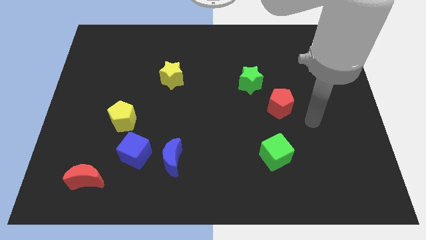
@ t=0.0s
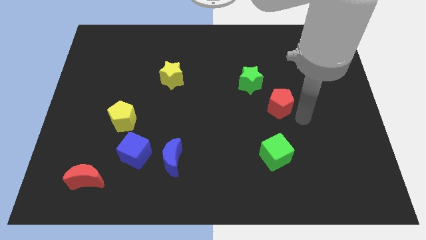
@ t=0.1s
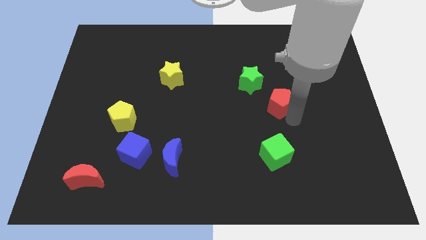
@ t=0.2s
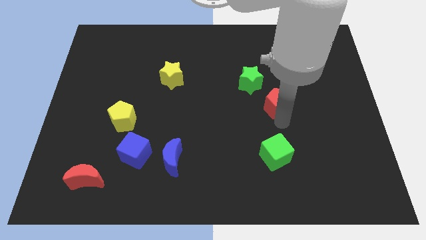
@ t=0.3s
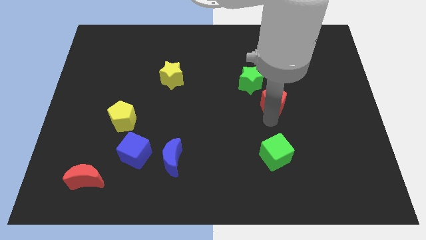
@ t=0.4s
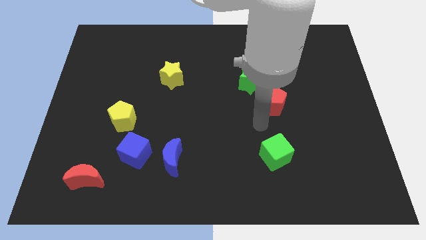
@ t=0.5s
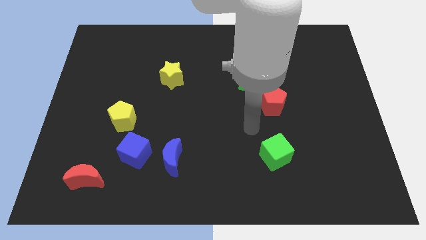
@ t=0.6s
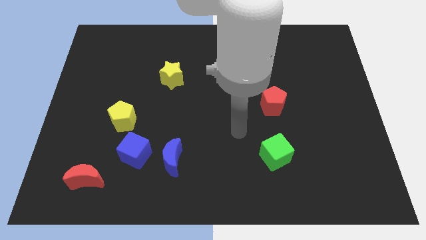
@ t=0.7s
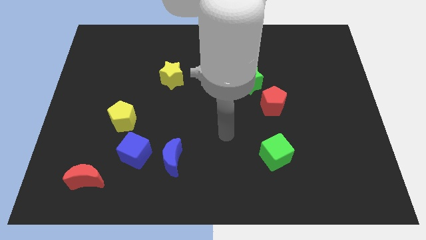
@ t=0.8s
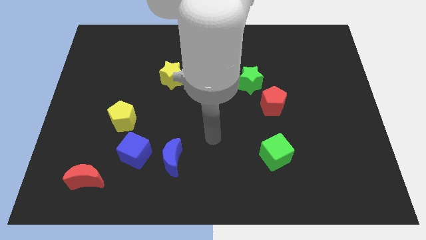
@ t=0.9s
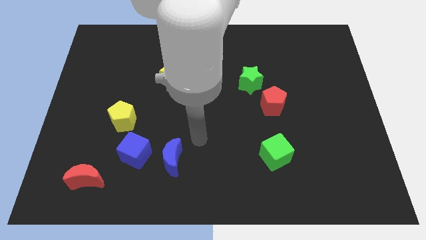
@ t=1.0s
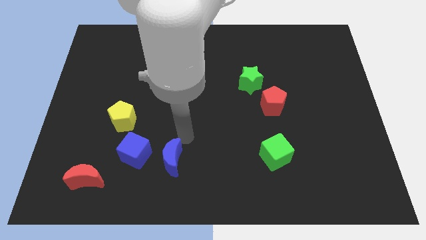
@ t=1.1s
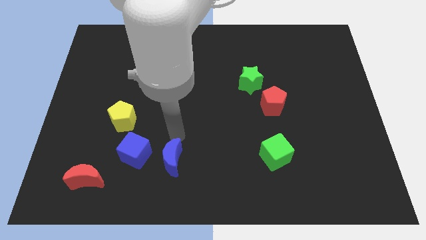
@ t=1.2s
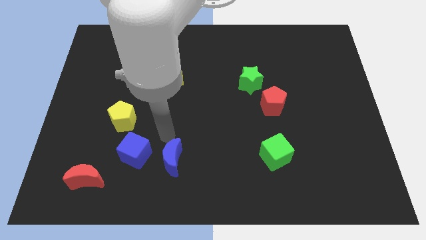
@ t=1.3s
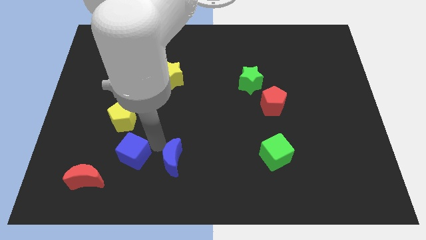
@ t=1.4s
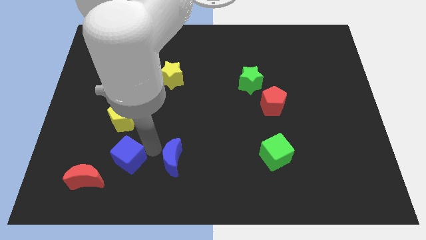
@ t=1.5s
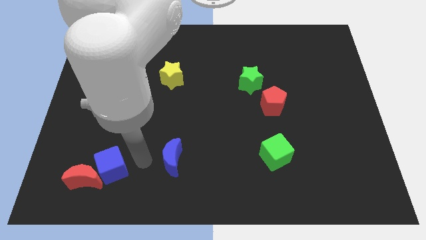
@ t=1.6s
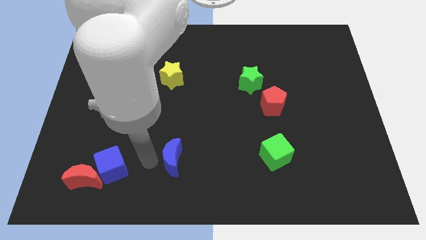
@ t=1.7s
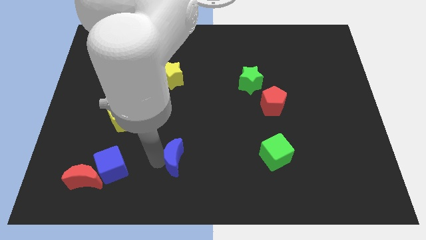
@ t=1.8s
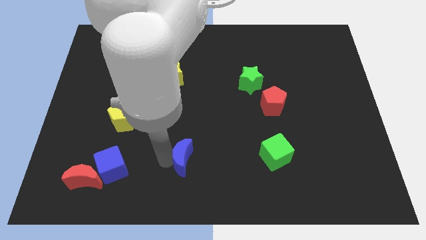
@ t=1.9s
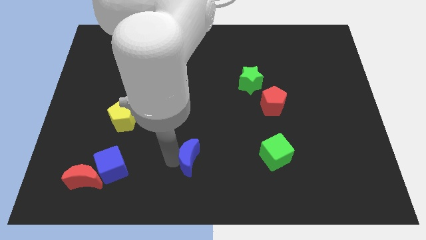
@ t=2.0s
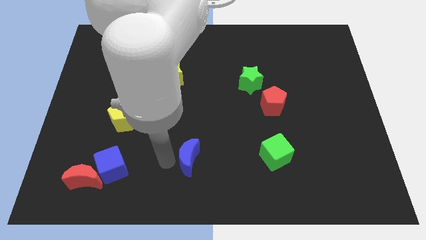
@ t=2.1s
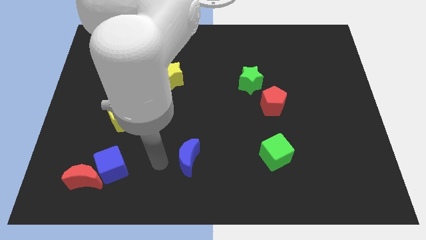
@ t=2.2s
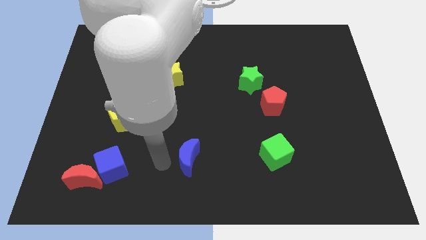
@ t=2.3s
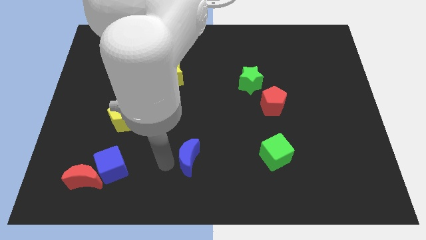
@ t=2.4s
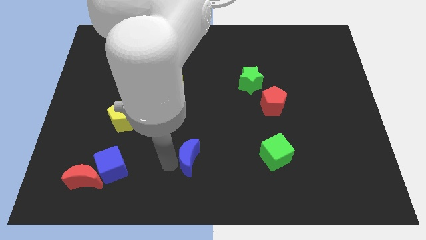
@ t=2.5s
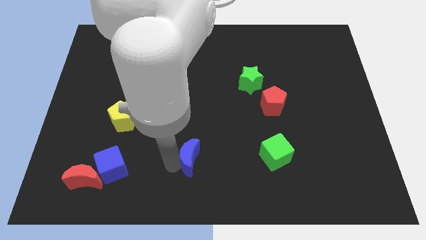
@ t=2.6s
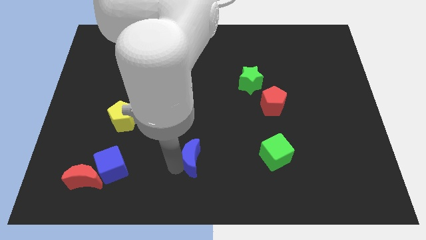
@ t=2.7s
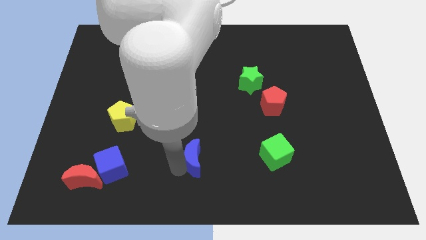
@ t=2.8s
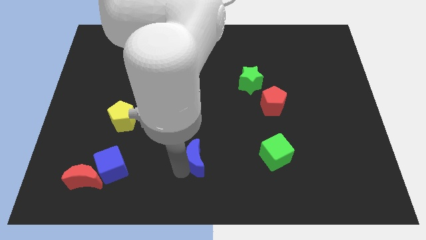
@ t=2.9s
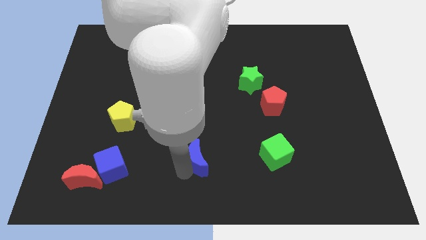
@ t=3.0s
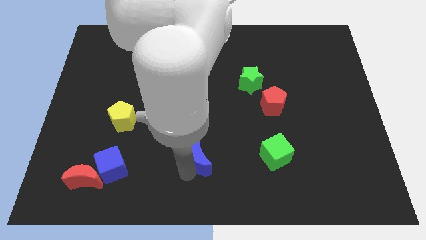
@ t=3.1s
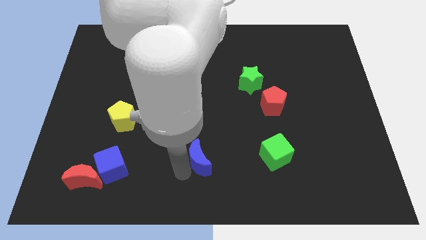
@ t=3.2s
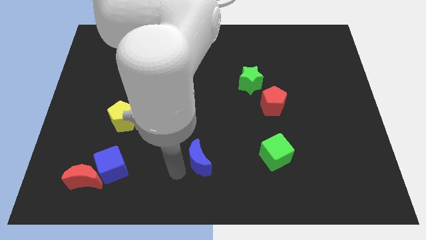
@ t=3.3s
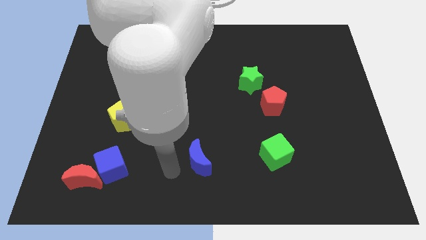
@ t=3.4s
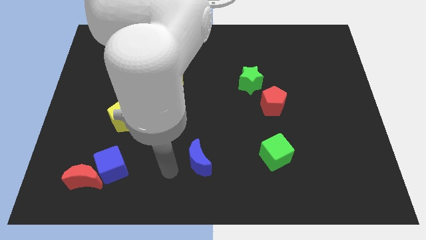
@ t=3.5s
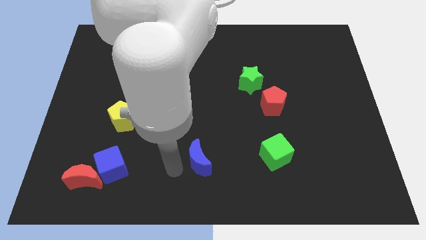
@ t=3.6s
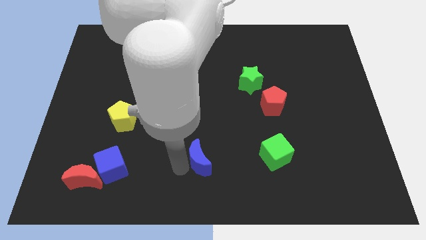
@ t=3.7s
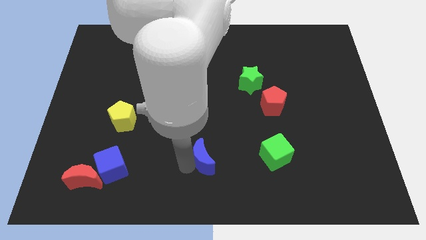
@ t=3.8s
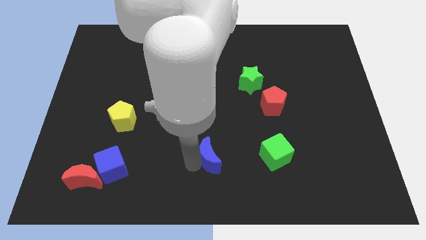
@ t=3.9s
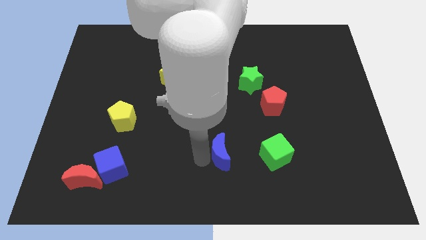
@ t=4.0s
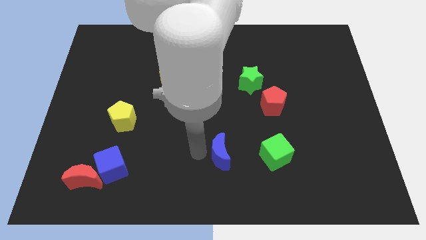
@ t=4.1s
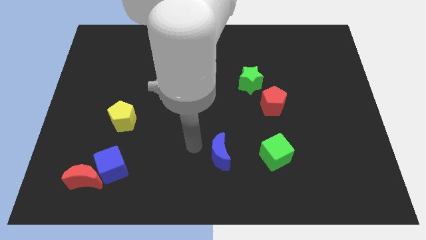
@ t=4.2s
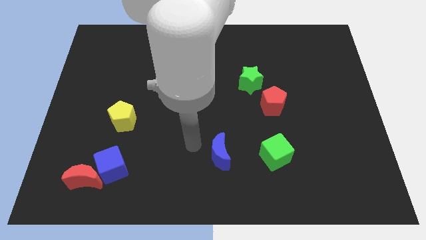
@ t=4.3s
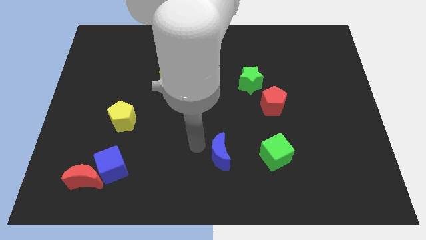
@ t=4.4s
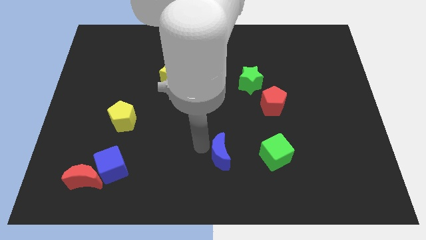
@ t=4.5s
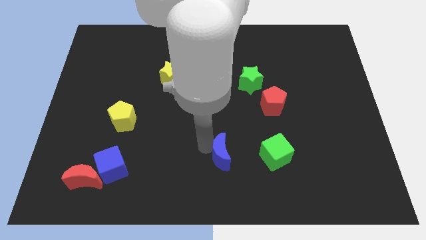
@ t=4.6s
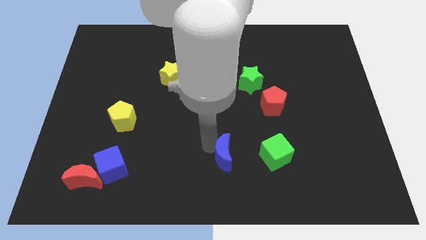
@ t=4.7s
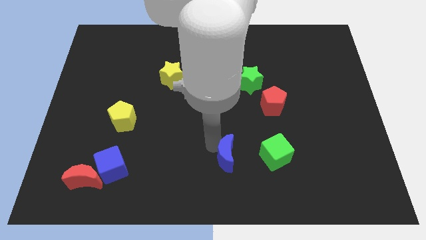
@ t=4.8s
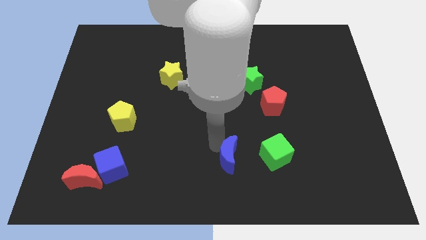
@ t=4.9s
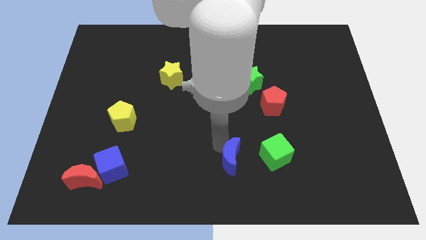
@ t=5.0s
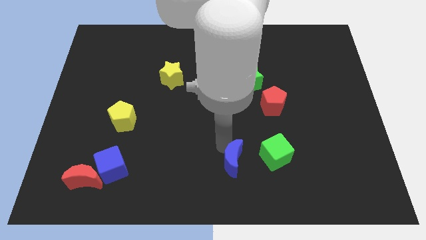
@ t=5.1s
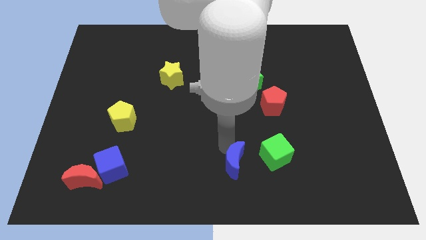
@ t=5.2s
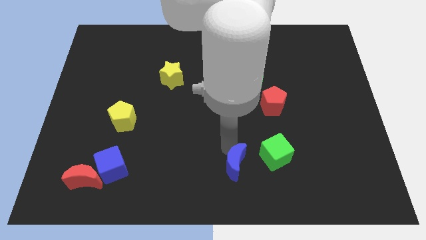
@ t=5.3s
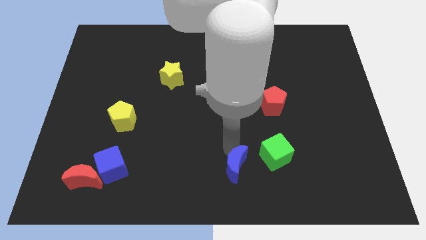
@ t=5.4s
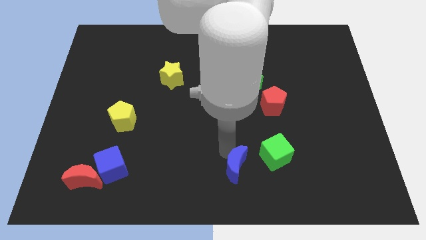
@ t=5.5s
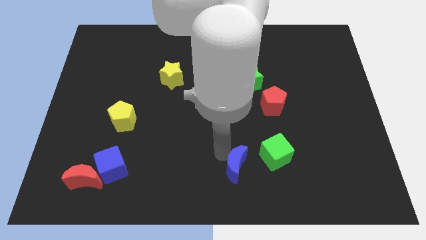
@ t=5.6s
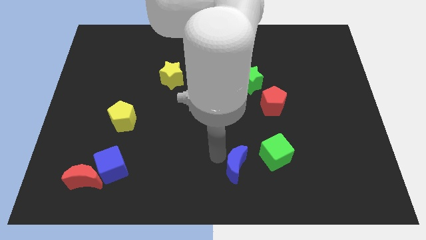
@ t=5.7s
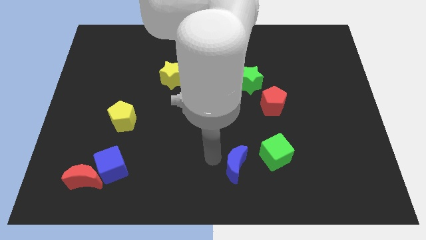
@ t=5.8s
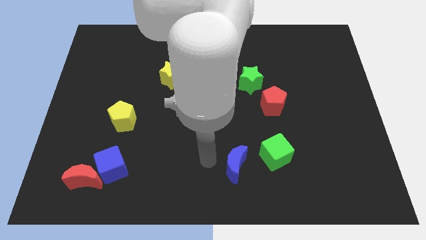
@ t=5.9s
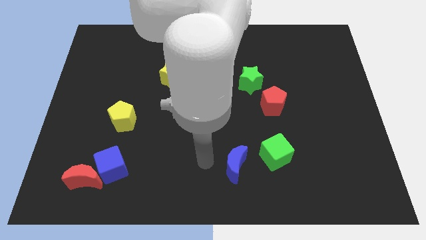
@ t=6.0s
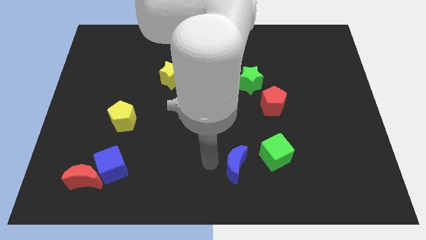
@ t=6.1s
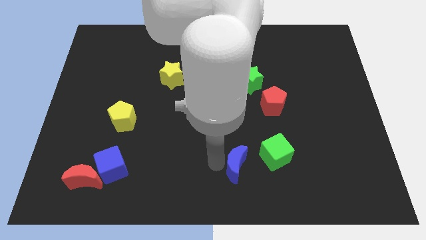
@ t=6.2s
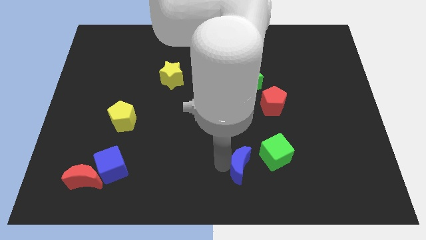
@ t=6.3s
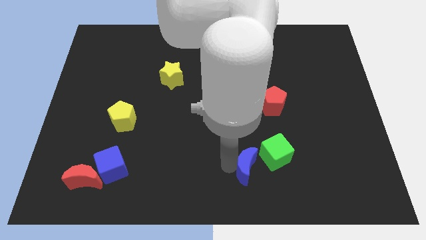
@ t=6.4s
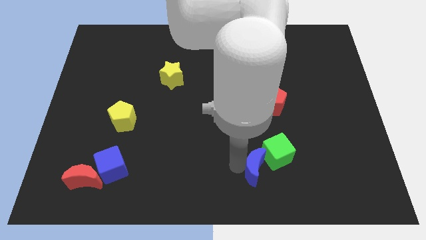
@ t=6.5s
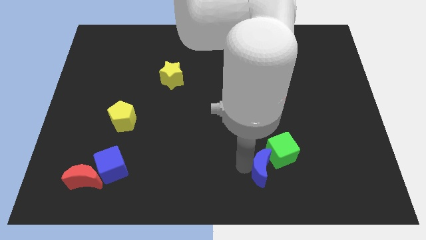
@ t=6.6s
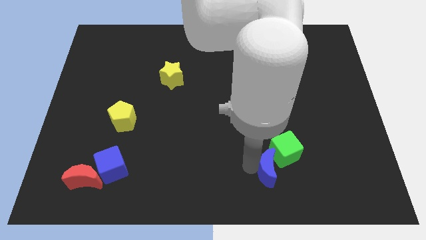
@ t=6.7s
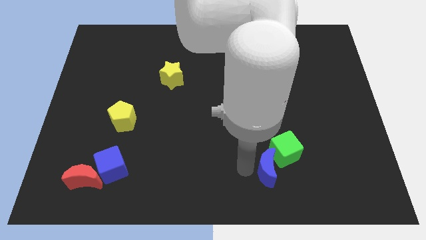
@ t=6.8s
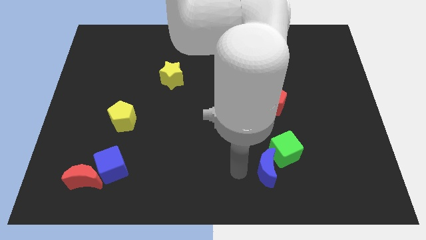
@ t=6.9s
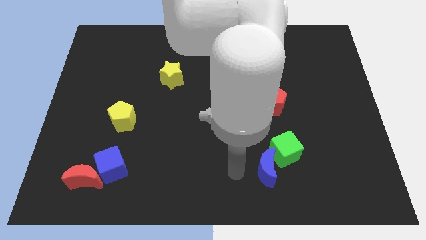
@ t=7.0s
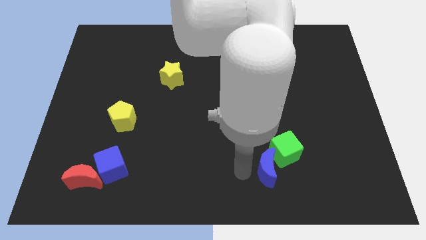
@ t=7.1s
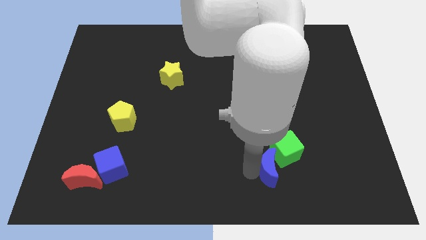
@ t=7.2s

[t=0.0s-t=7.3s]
slide the blue moon right

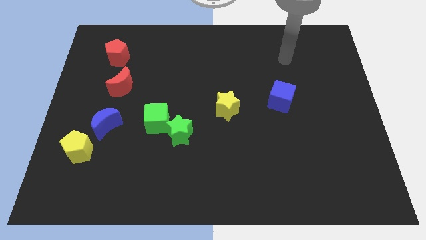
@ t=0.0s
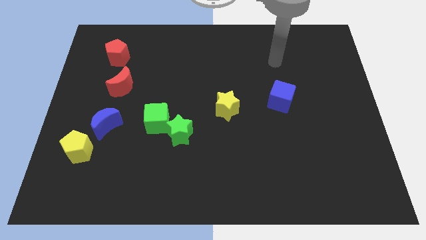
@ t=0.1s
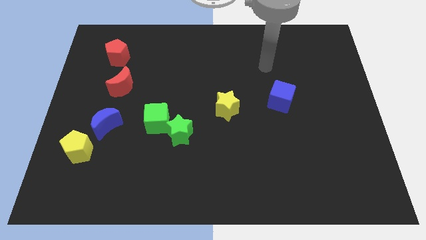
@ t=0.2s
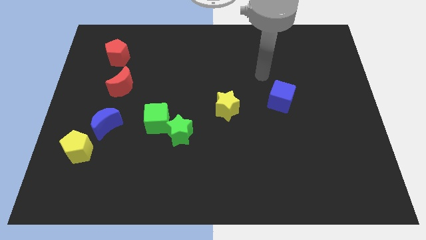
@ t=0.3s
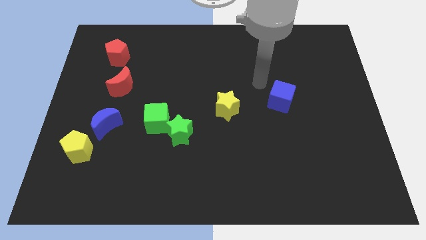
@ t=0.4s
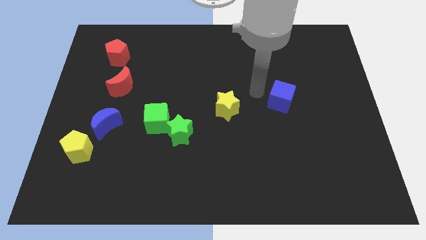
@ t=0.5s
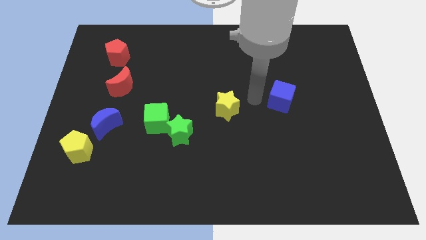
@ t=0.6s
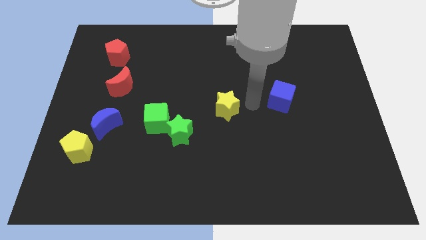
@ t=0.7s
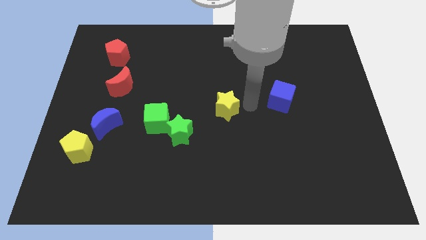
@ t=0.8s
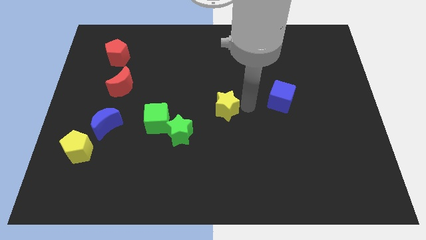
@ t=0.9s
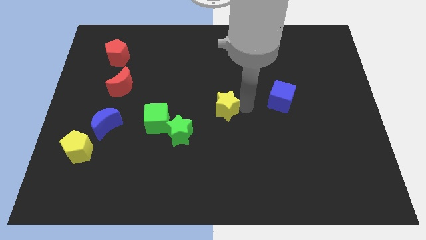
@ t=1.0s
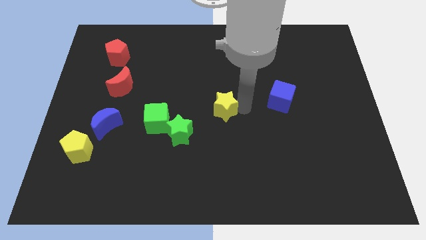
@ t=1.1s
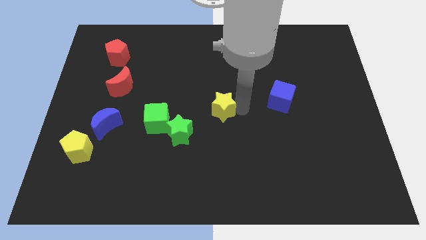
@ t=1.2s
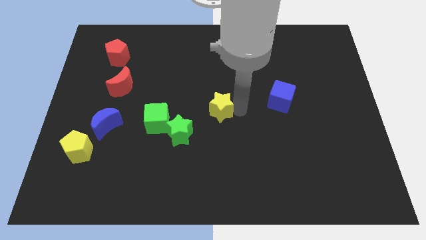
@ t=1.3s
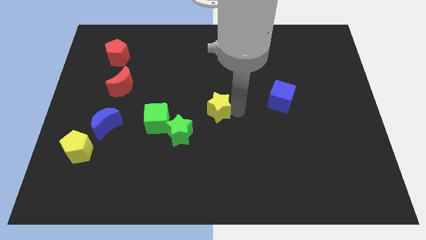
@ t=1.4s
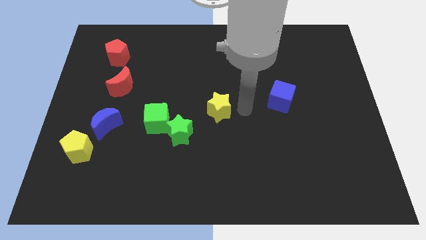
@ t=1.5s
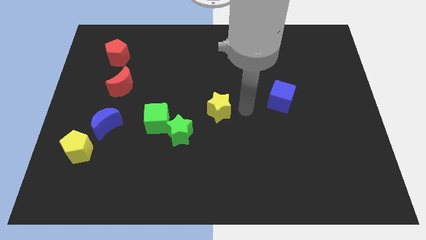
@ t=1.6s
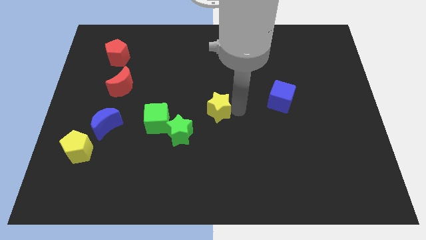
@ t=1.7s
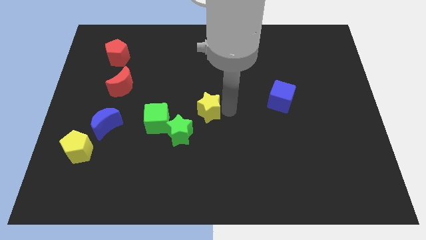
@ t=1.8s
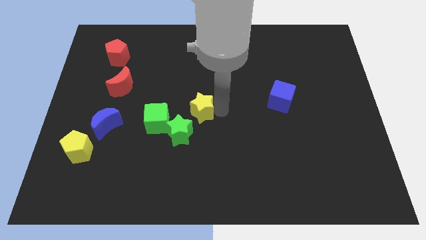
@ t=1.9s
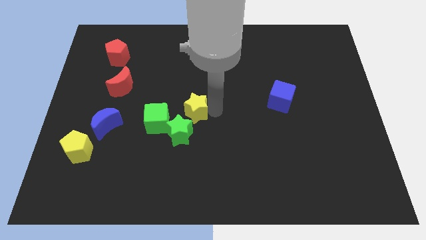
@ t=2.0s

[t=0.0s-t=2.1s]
slightly move the yellow star to the left
